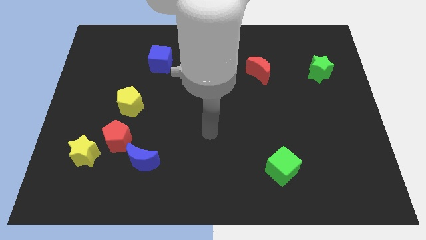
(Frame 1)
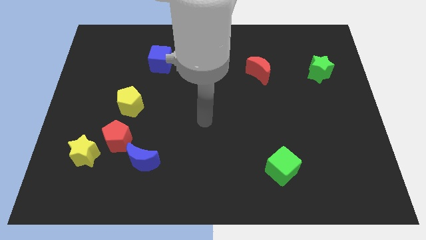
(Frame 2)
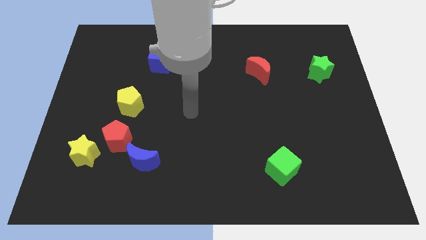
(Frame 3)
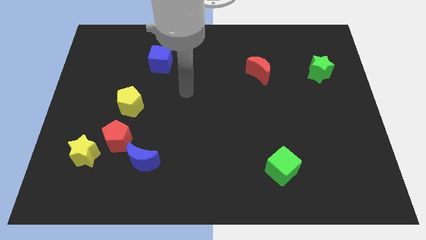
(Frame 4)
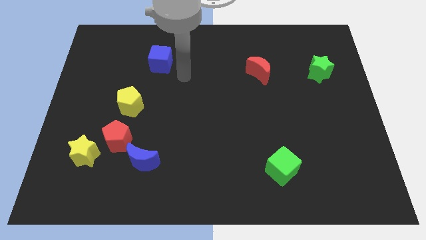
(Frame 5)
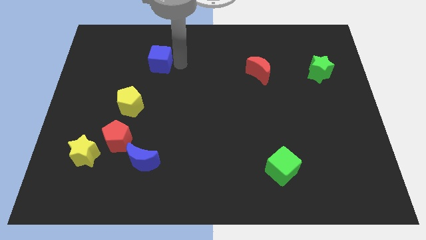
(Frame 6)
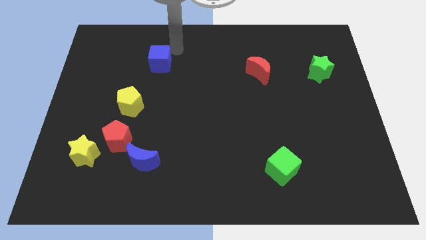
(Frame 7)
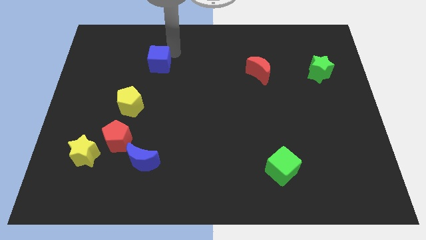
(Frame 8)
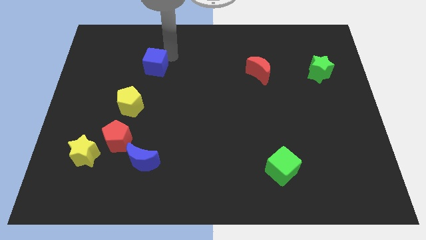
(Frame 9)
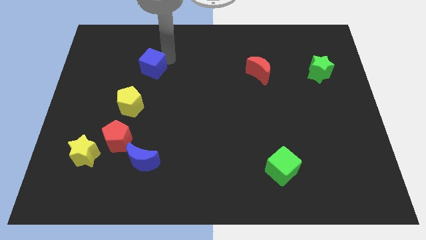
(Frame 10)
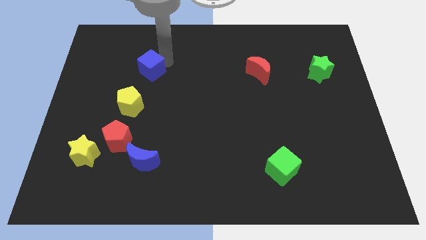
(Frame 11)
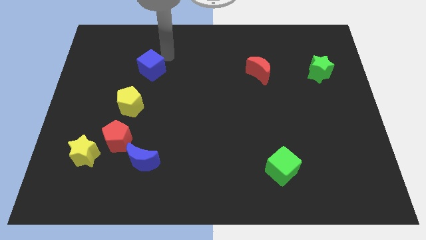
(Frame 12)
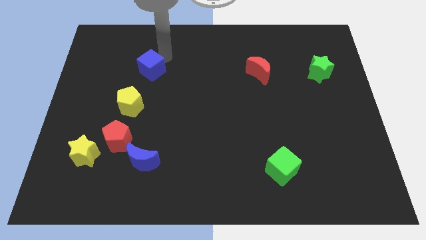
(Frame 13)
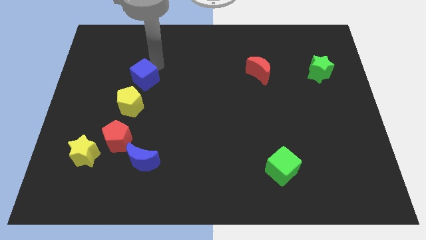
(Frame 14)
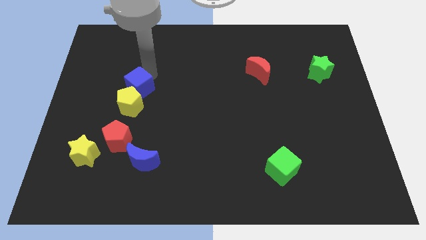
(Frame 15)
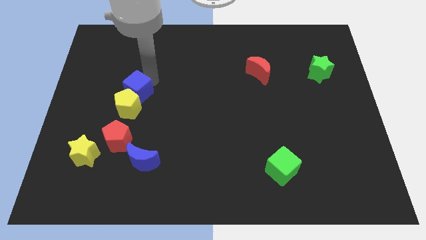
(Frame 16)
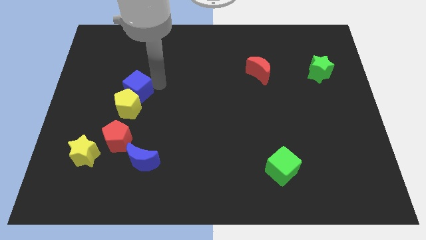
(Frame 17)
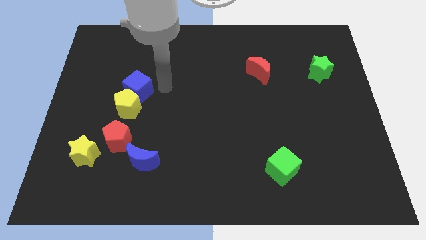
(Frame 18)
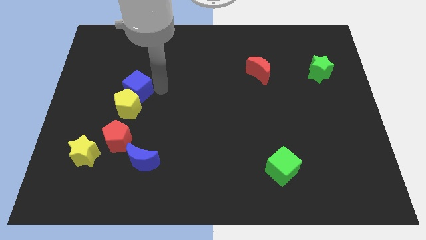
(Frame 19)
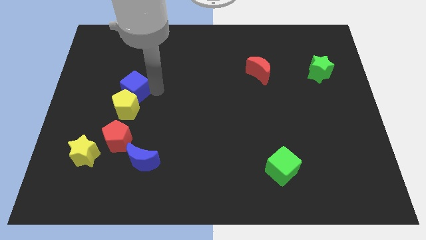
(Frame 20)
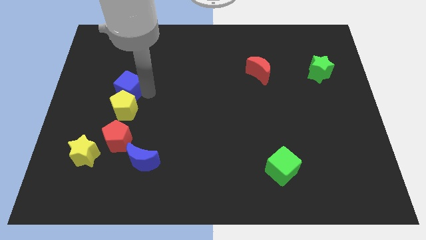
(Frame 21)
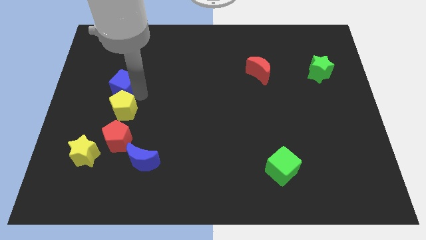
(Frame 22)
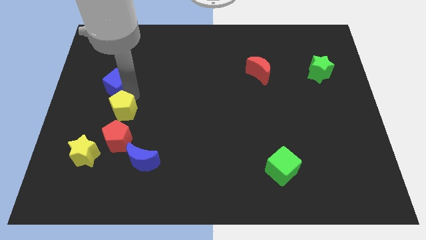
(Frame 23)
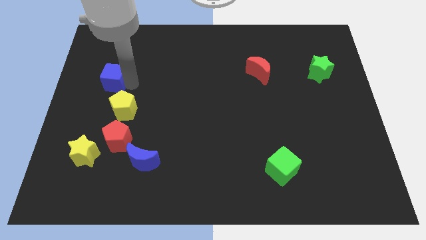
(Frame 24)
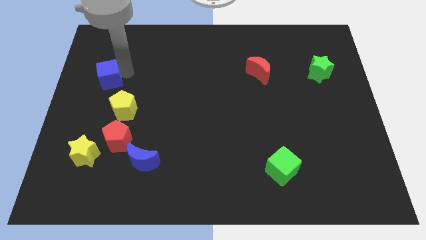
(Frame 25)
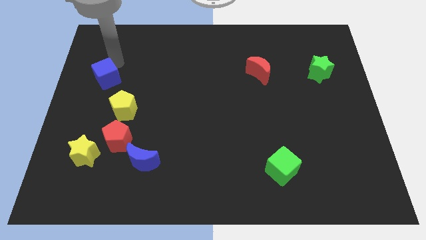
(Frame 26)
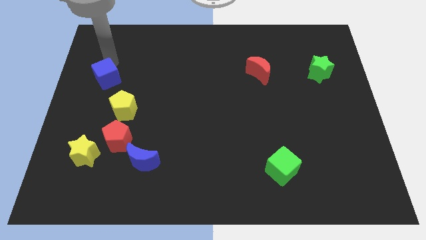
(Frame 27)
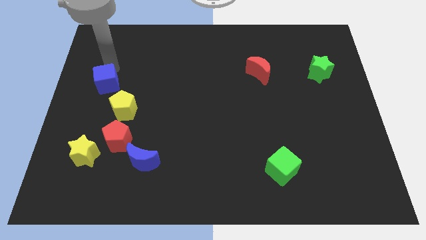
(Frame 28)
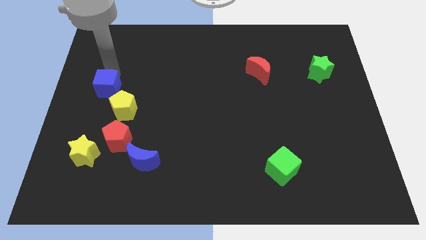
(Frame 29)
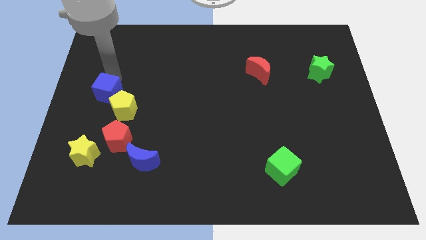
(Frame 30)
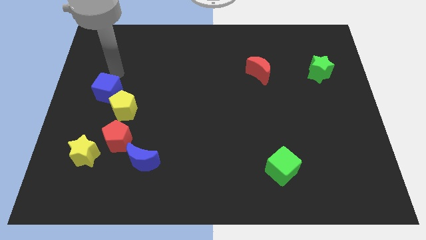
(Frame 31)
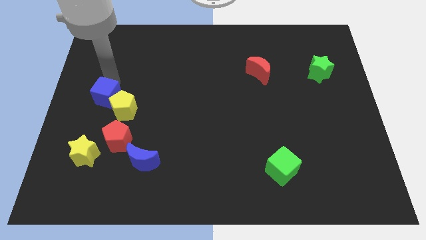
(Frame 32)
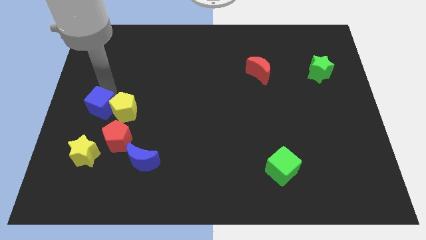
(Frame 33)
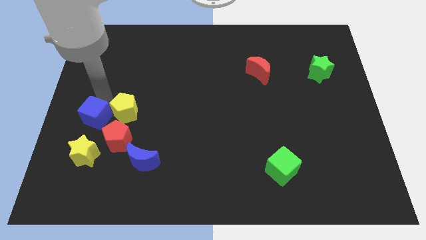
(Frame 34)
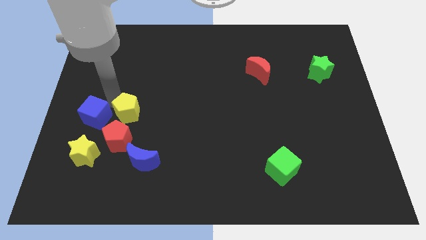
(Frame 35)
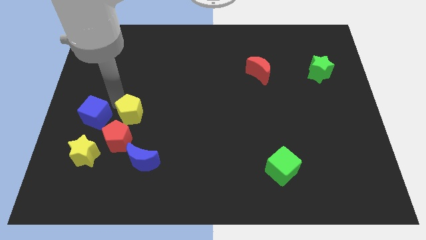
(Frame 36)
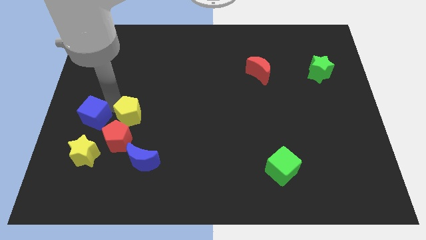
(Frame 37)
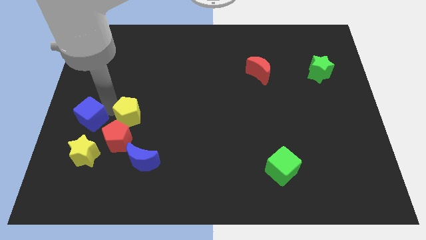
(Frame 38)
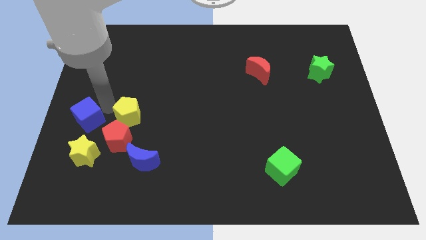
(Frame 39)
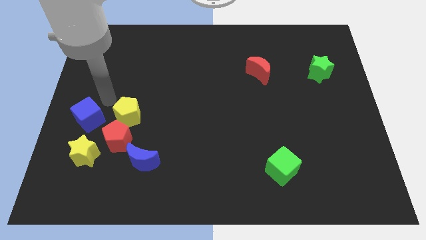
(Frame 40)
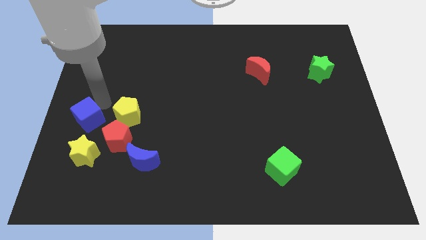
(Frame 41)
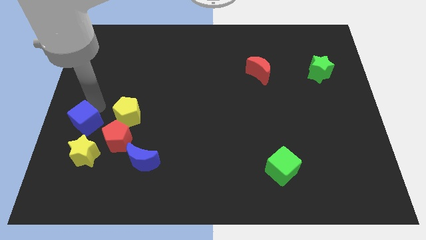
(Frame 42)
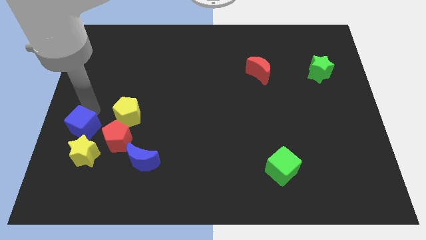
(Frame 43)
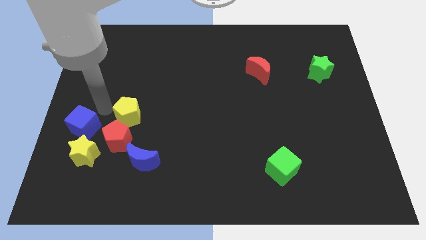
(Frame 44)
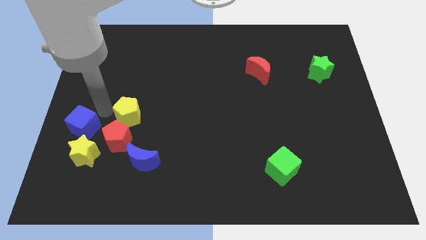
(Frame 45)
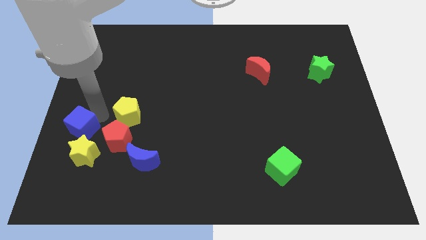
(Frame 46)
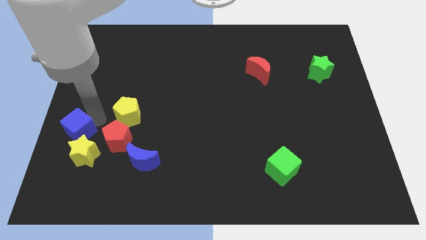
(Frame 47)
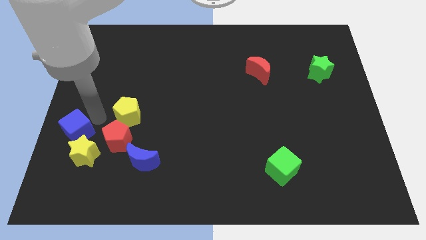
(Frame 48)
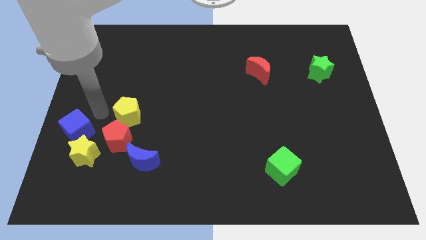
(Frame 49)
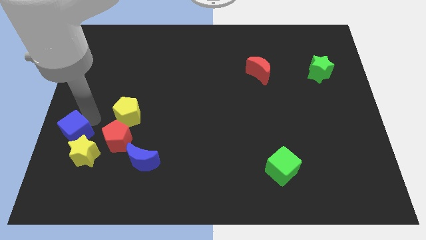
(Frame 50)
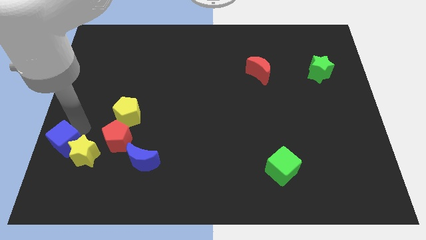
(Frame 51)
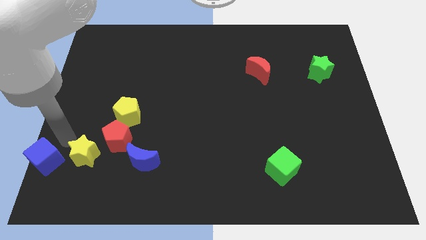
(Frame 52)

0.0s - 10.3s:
push the blue cube to the bottom left
